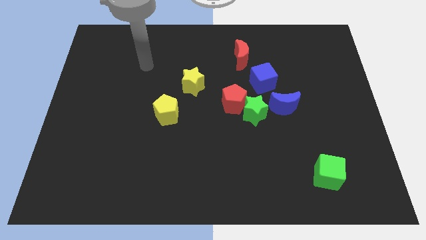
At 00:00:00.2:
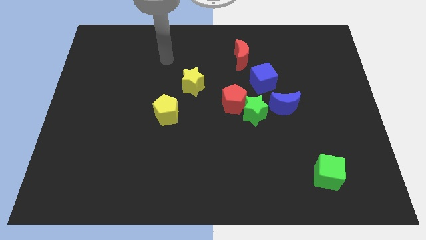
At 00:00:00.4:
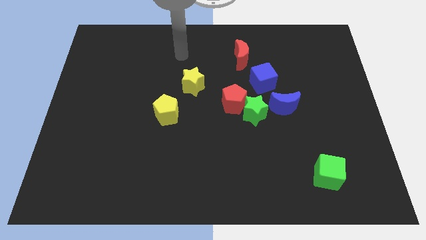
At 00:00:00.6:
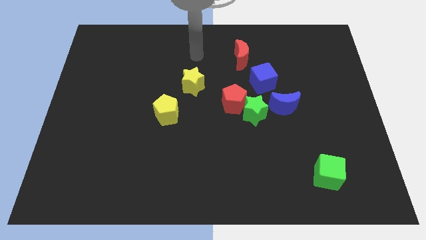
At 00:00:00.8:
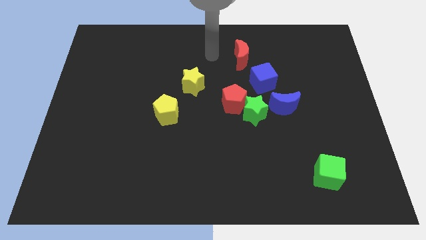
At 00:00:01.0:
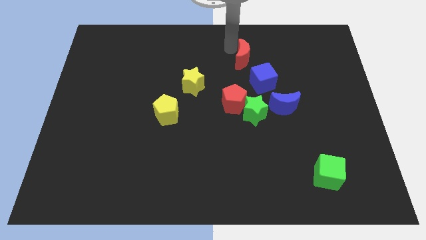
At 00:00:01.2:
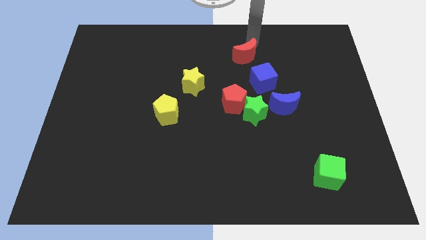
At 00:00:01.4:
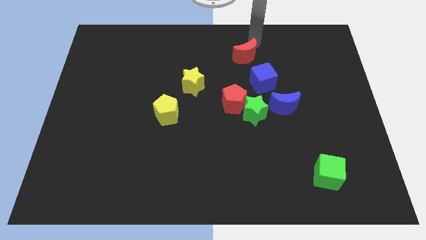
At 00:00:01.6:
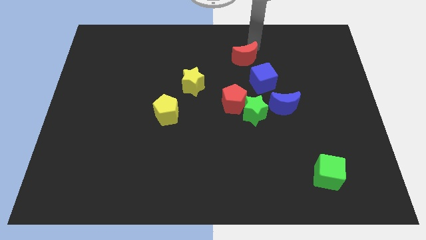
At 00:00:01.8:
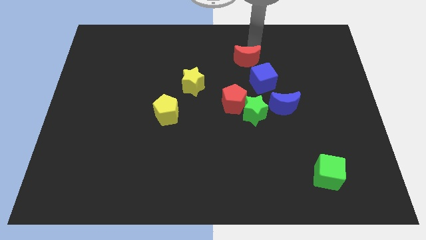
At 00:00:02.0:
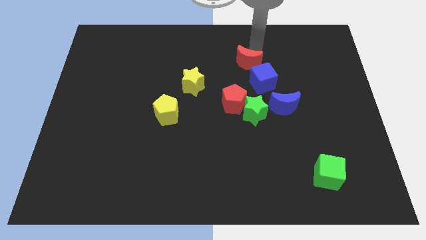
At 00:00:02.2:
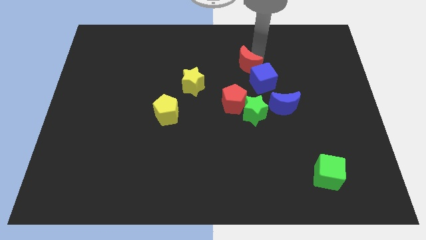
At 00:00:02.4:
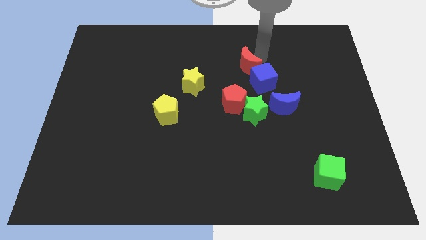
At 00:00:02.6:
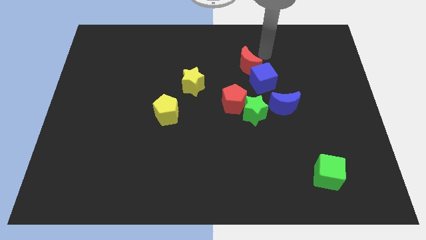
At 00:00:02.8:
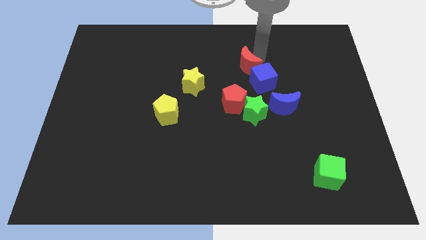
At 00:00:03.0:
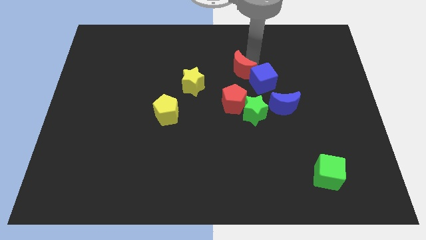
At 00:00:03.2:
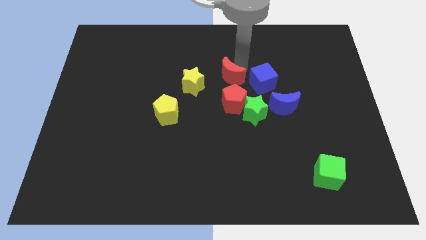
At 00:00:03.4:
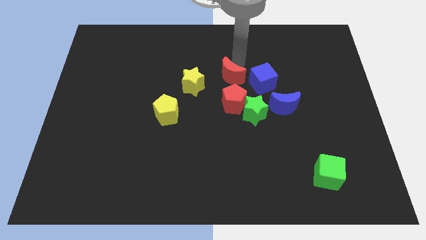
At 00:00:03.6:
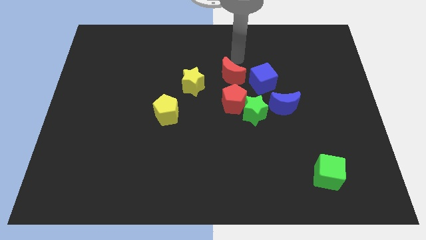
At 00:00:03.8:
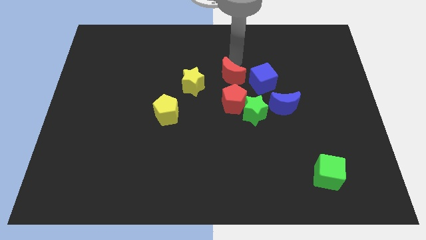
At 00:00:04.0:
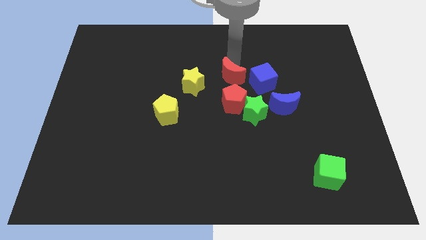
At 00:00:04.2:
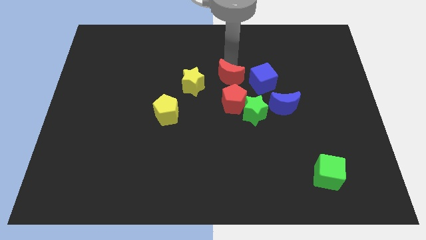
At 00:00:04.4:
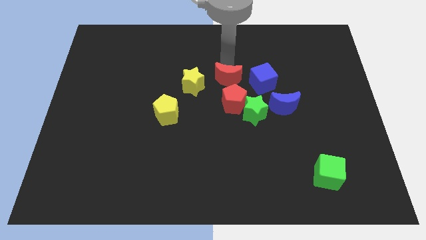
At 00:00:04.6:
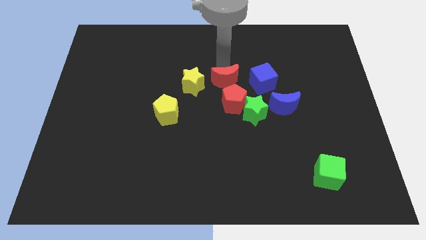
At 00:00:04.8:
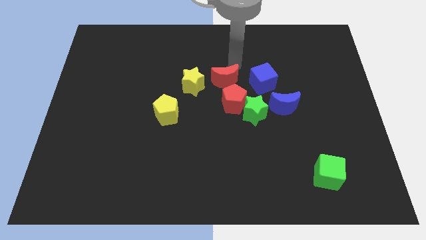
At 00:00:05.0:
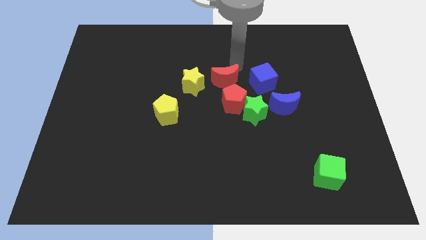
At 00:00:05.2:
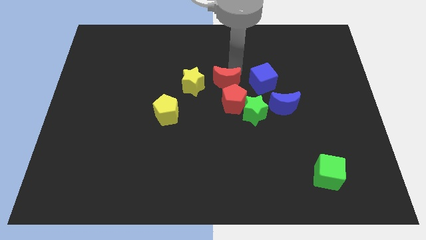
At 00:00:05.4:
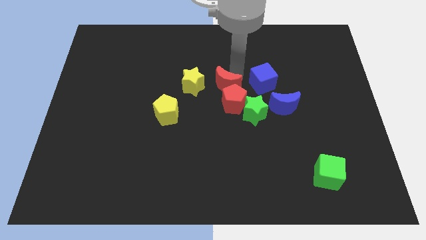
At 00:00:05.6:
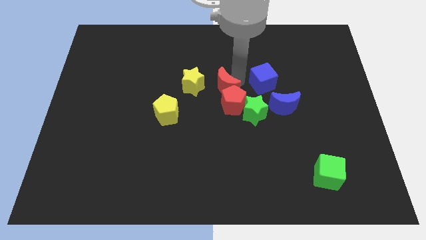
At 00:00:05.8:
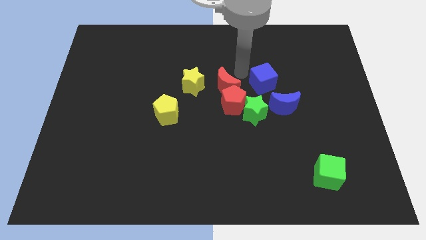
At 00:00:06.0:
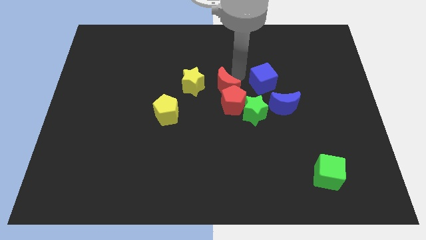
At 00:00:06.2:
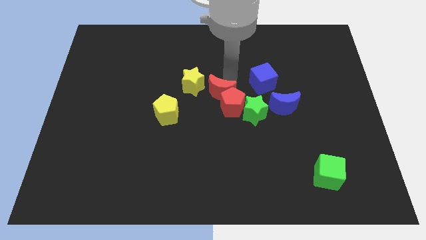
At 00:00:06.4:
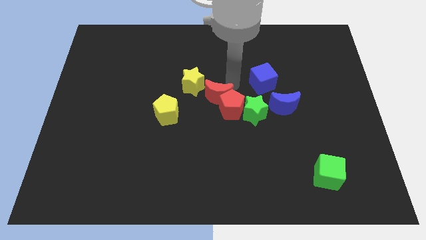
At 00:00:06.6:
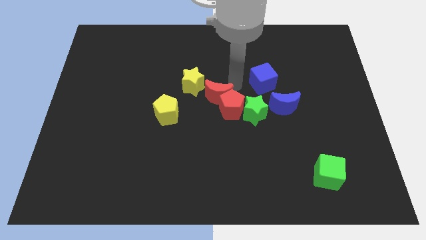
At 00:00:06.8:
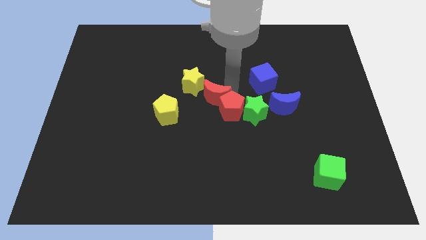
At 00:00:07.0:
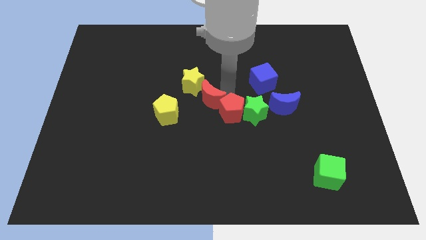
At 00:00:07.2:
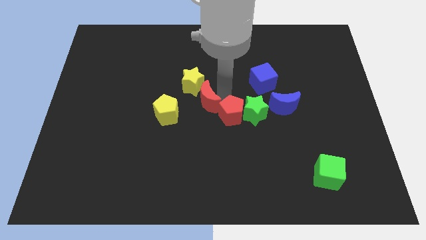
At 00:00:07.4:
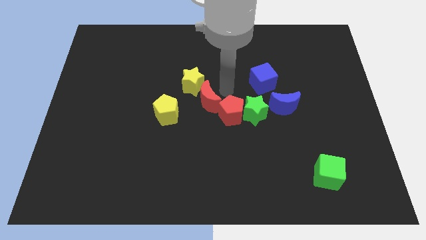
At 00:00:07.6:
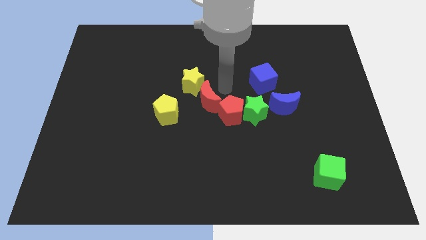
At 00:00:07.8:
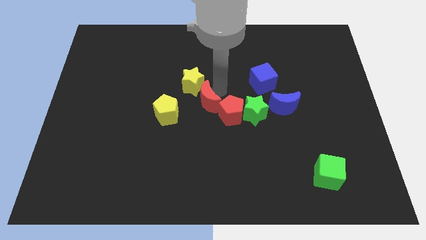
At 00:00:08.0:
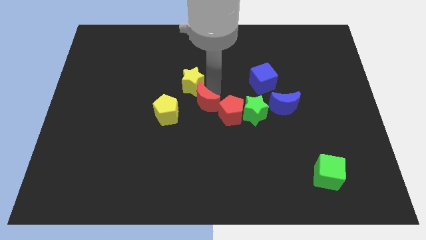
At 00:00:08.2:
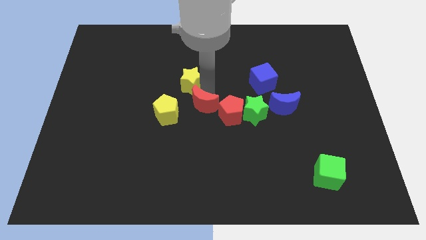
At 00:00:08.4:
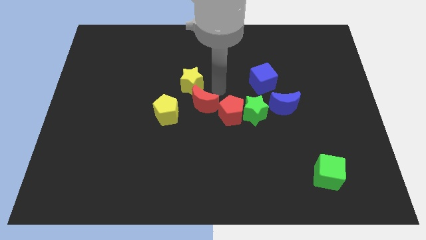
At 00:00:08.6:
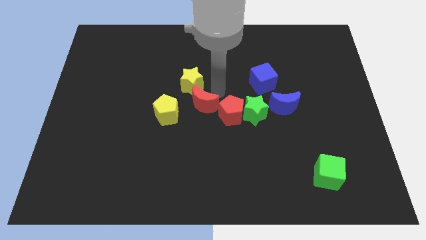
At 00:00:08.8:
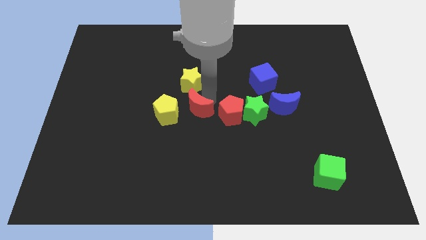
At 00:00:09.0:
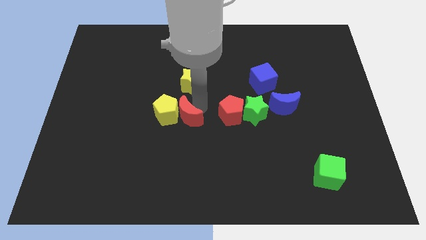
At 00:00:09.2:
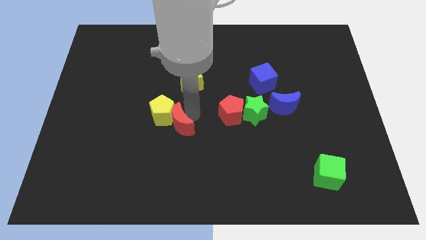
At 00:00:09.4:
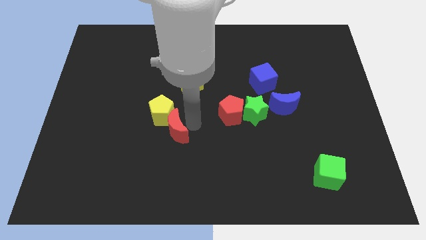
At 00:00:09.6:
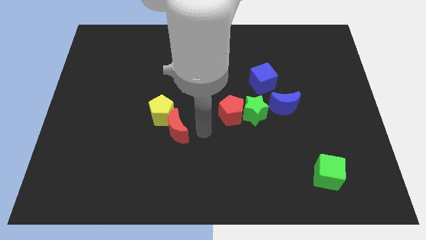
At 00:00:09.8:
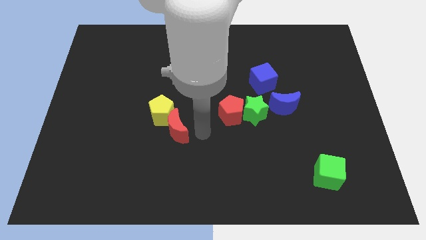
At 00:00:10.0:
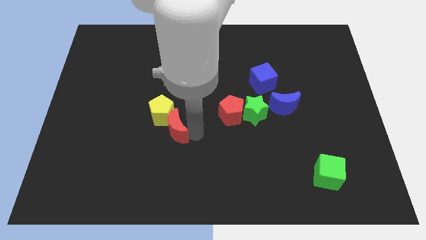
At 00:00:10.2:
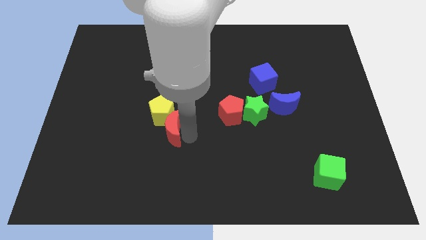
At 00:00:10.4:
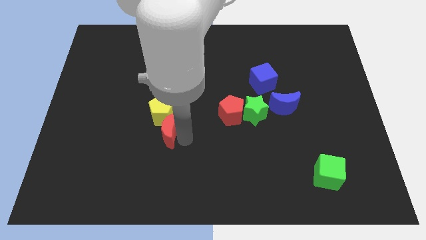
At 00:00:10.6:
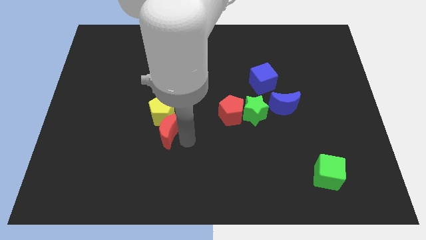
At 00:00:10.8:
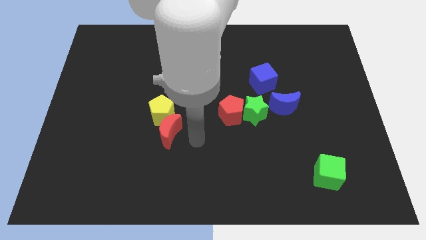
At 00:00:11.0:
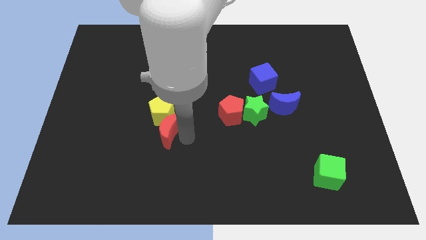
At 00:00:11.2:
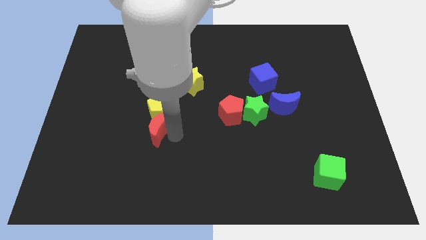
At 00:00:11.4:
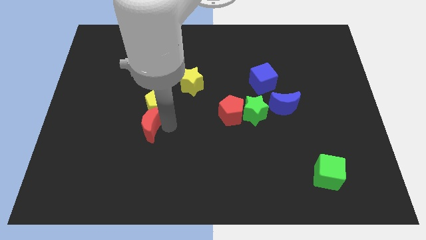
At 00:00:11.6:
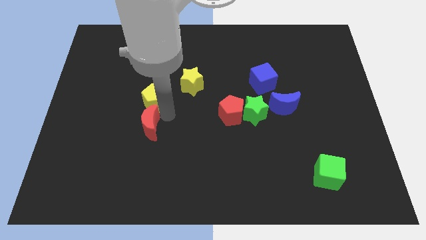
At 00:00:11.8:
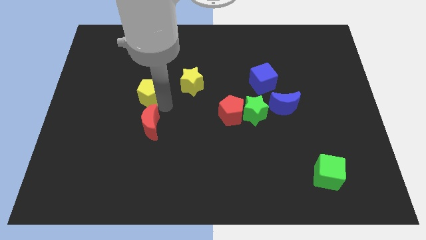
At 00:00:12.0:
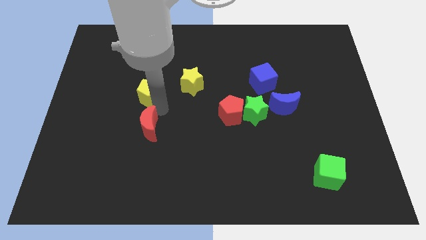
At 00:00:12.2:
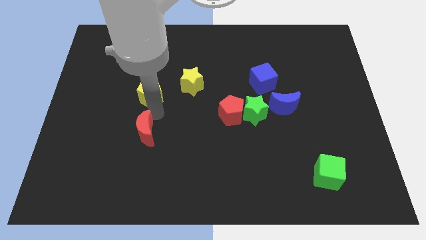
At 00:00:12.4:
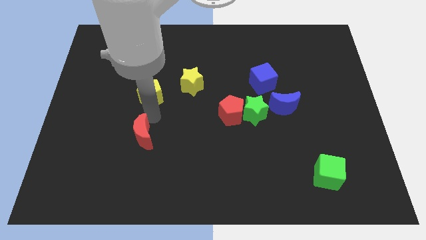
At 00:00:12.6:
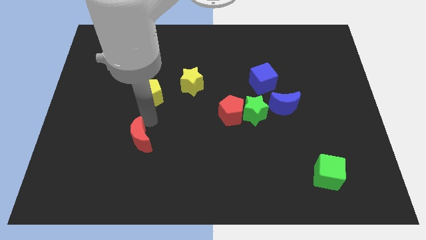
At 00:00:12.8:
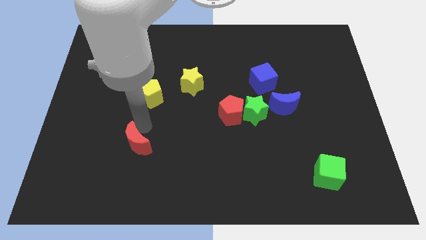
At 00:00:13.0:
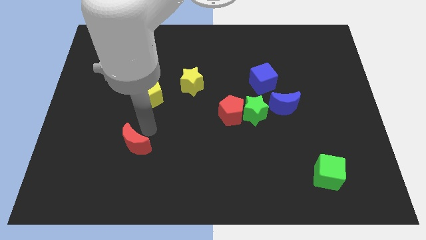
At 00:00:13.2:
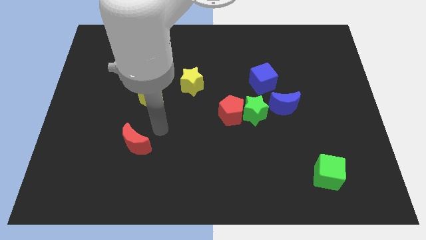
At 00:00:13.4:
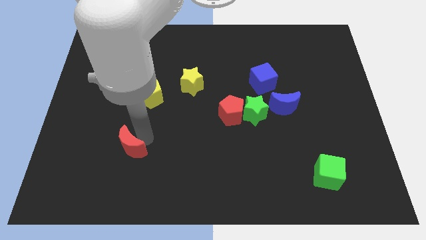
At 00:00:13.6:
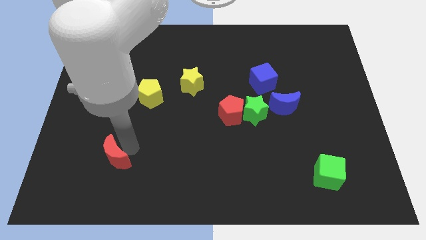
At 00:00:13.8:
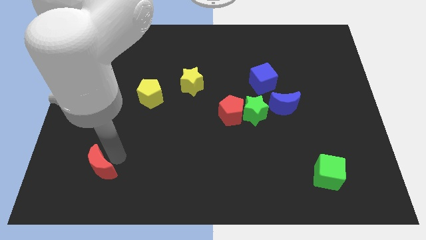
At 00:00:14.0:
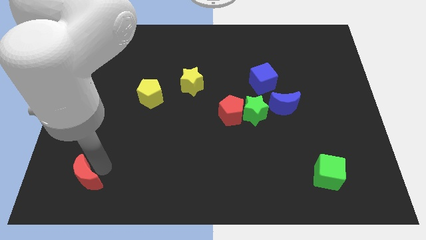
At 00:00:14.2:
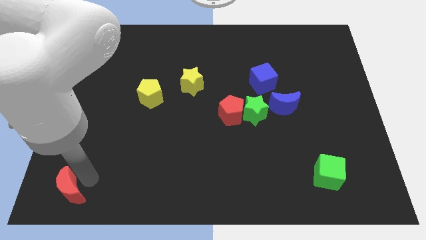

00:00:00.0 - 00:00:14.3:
put the red moon to the lower left corner
